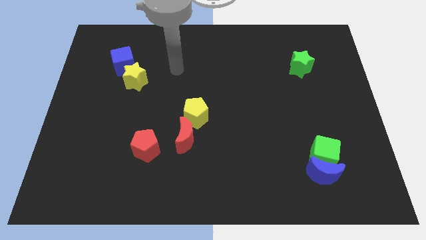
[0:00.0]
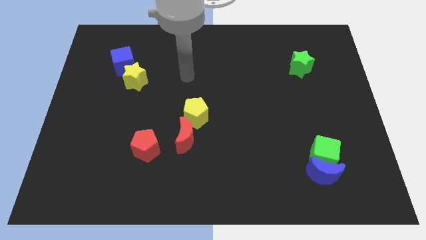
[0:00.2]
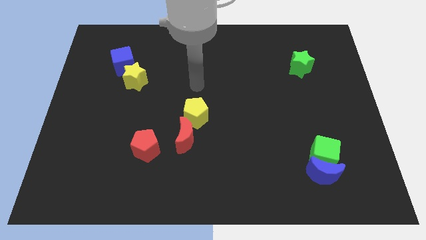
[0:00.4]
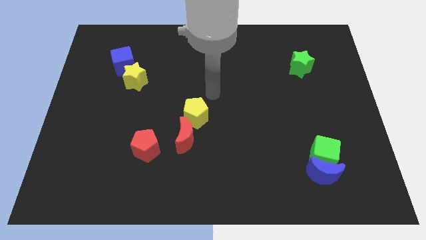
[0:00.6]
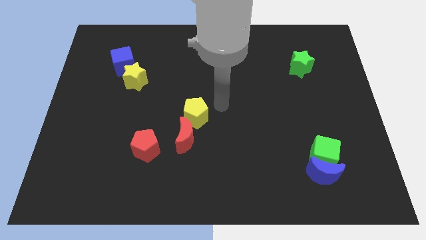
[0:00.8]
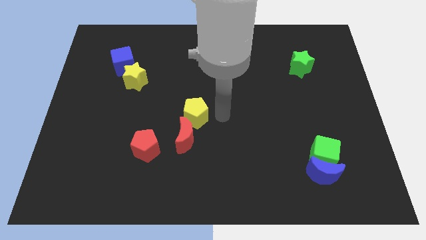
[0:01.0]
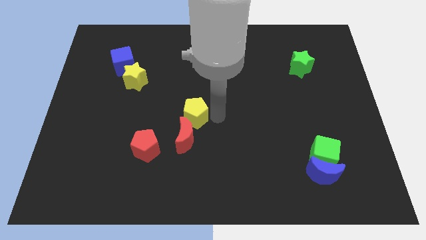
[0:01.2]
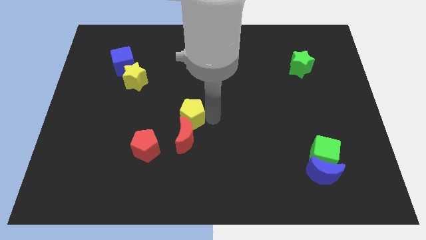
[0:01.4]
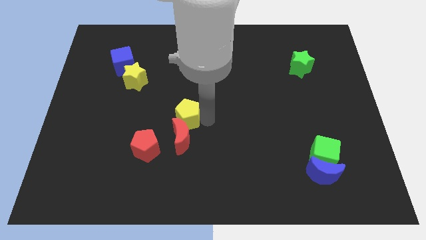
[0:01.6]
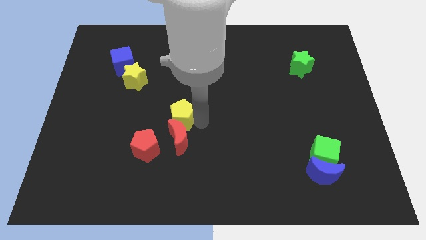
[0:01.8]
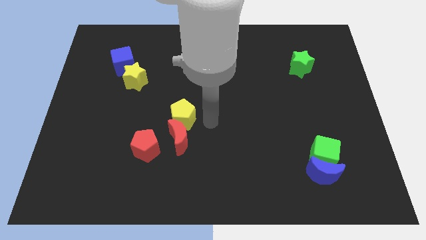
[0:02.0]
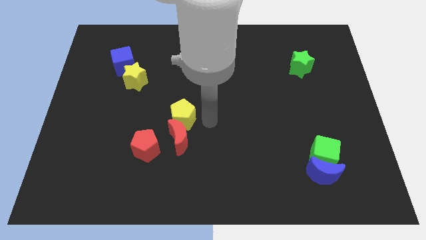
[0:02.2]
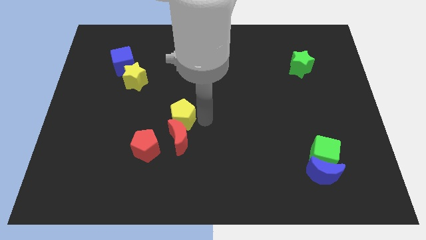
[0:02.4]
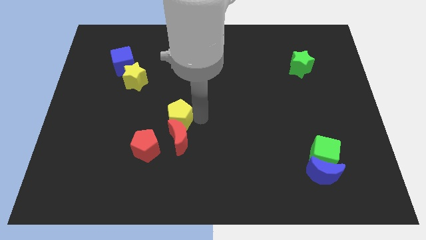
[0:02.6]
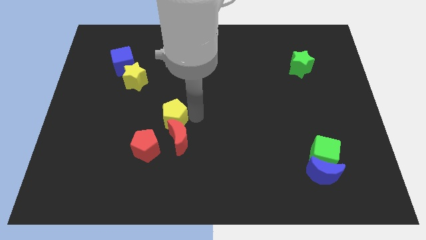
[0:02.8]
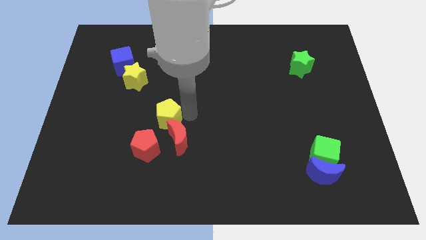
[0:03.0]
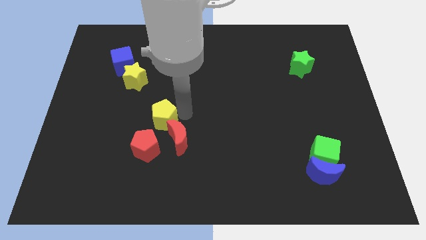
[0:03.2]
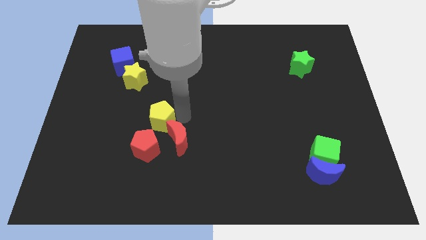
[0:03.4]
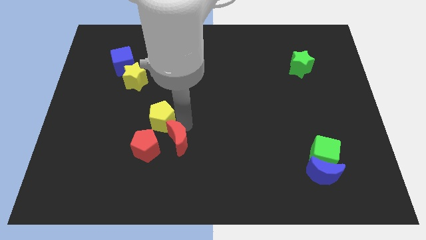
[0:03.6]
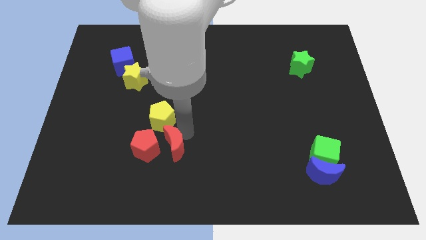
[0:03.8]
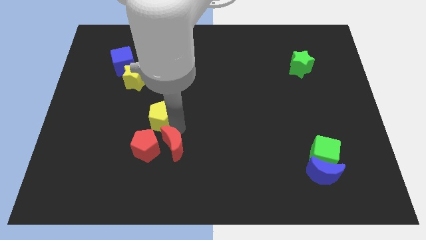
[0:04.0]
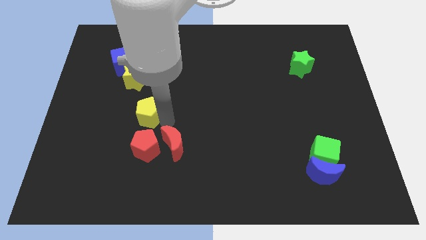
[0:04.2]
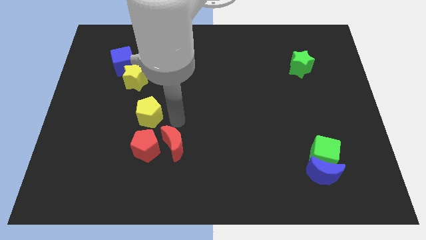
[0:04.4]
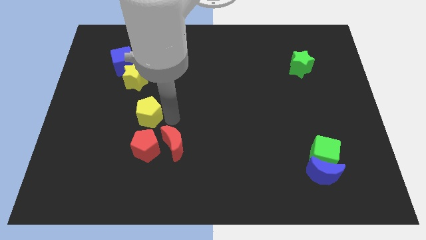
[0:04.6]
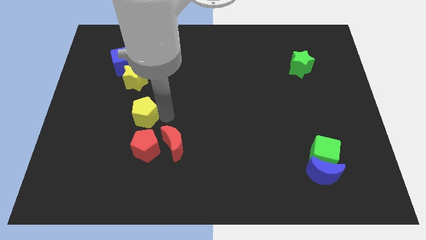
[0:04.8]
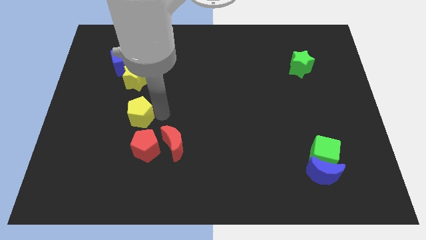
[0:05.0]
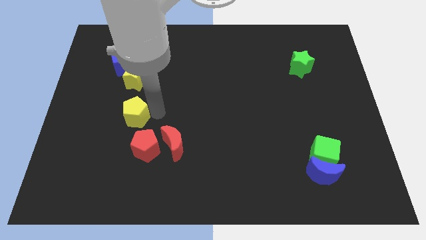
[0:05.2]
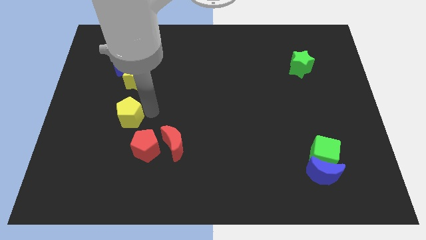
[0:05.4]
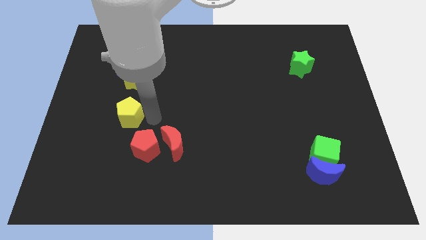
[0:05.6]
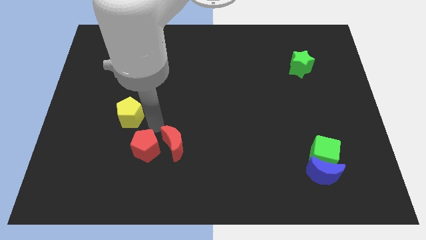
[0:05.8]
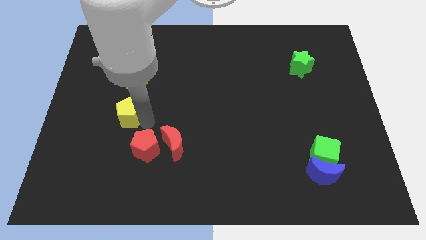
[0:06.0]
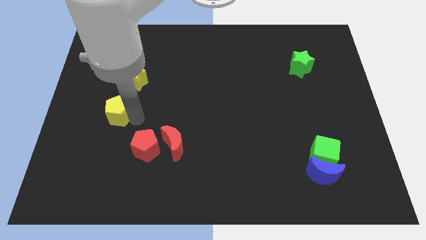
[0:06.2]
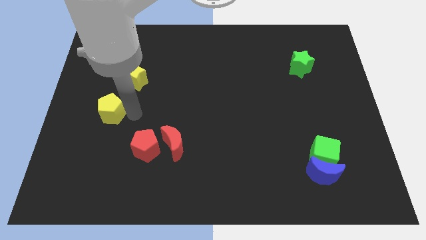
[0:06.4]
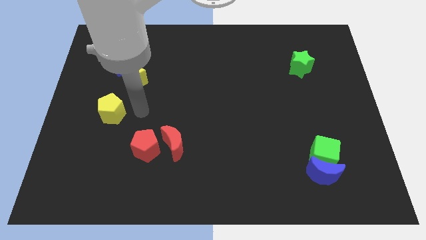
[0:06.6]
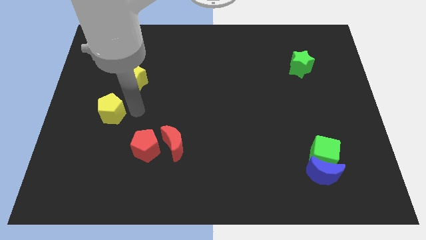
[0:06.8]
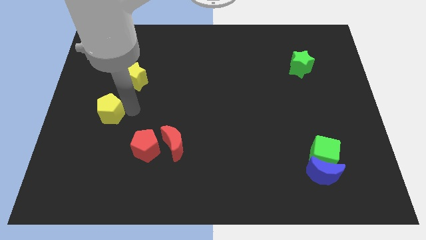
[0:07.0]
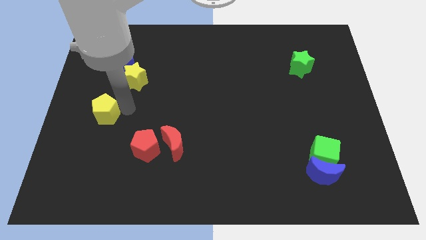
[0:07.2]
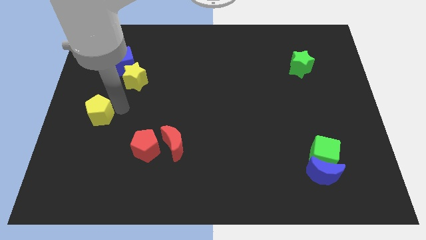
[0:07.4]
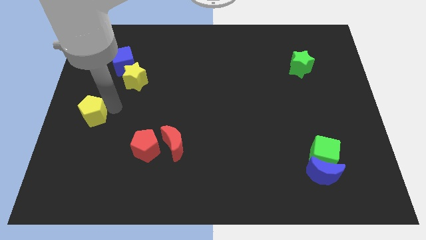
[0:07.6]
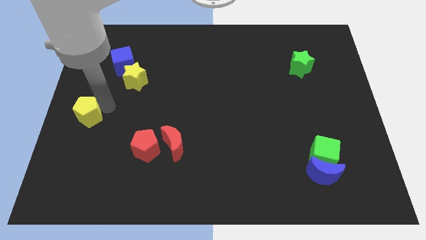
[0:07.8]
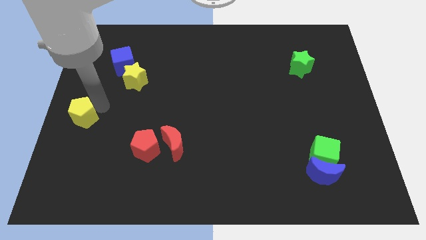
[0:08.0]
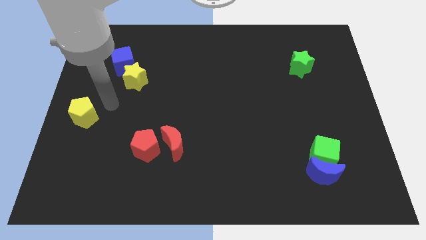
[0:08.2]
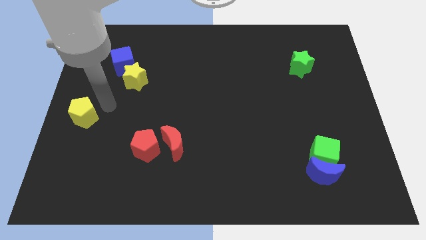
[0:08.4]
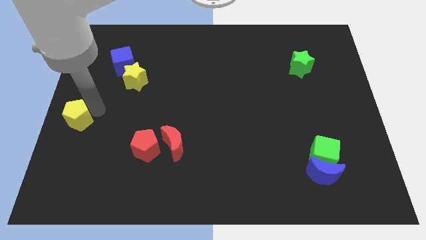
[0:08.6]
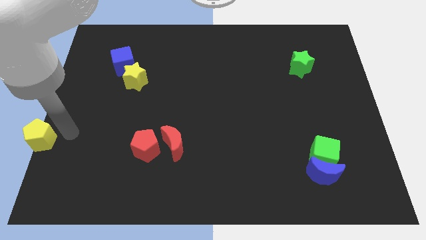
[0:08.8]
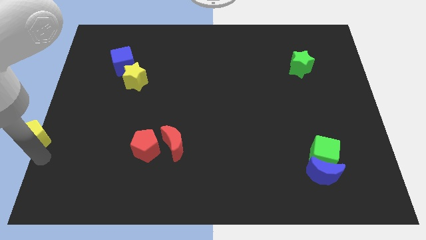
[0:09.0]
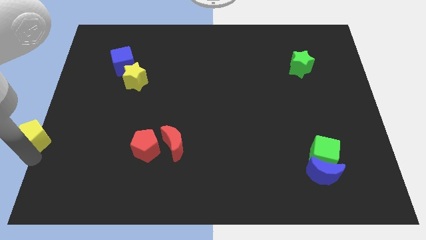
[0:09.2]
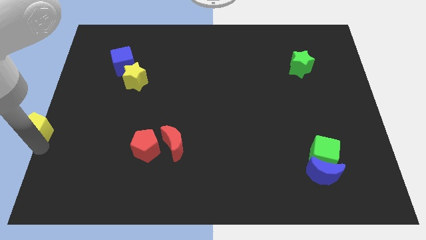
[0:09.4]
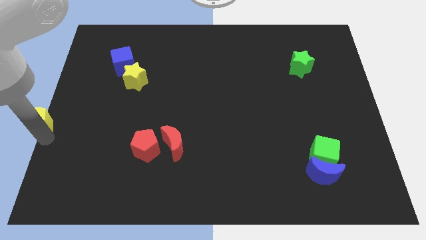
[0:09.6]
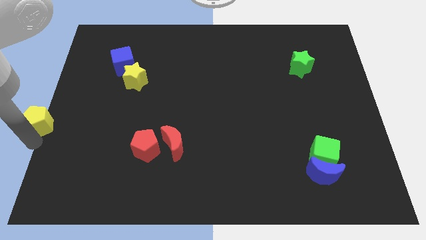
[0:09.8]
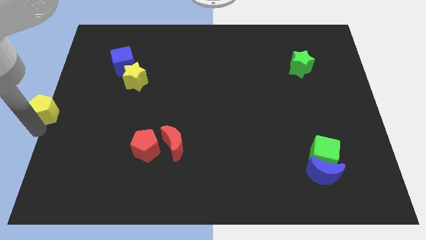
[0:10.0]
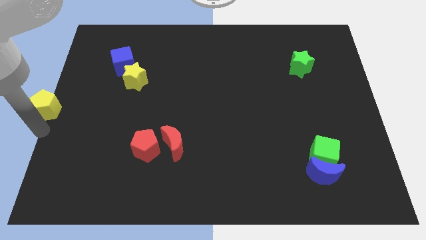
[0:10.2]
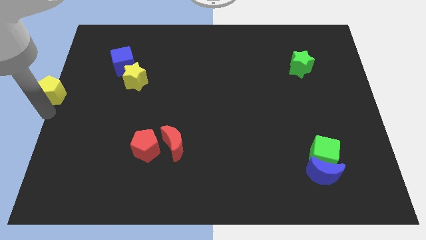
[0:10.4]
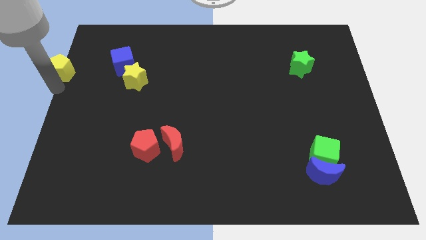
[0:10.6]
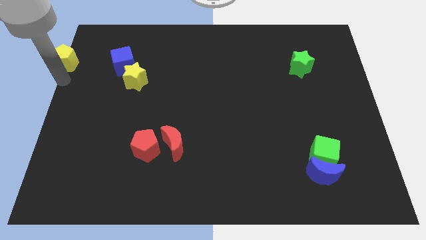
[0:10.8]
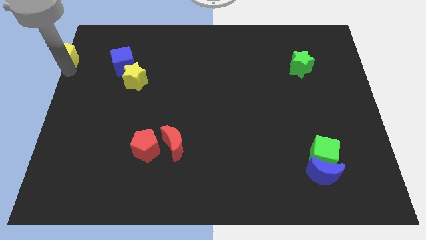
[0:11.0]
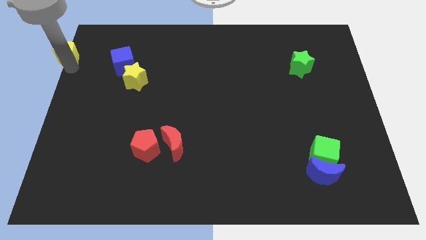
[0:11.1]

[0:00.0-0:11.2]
push the yellow pentagon to the top left corner

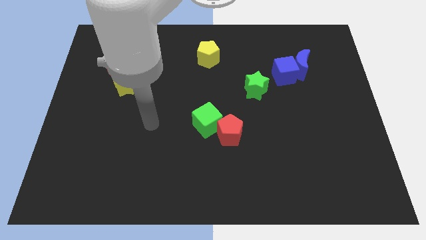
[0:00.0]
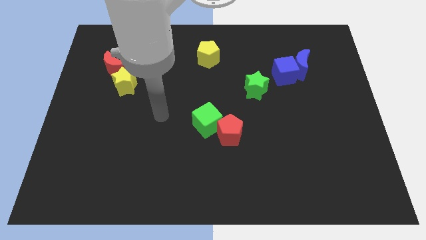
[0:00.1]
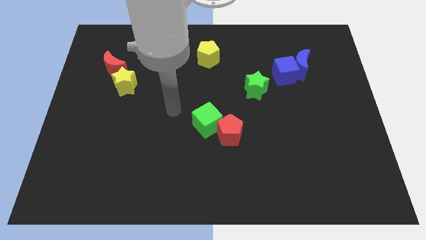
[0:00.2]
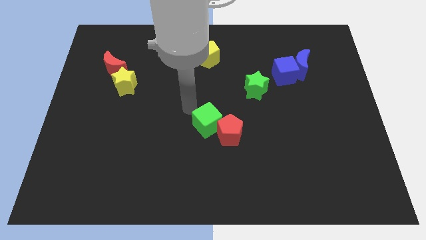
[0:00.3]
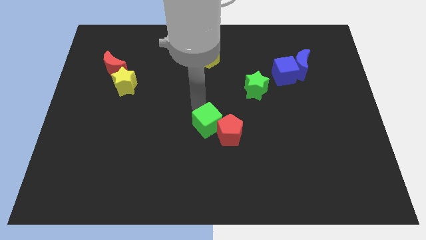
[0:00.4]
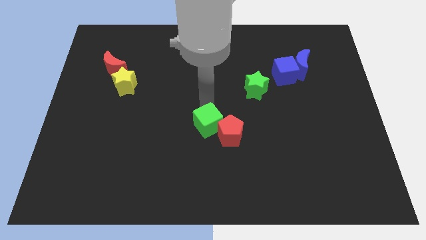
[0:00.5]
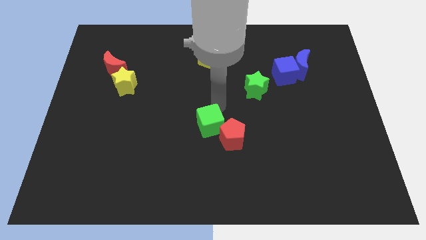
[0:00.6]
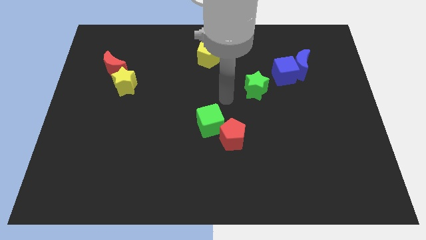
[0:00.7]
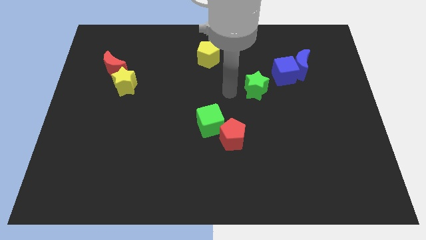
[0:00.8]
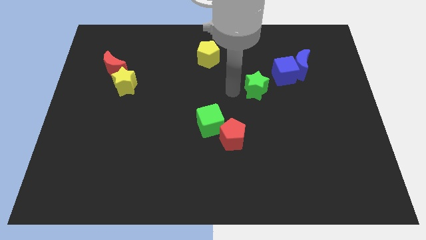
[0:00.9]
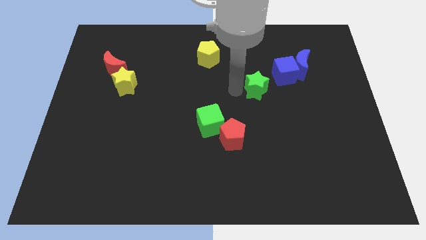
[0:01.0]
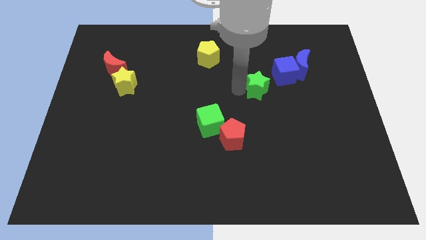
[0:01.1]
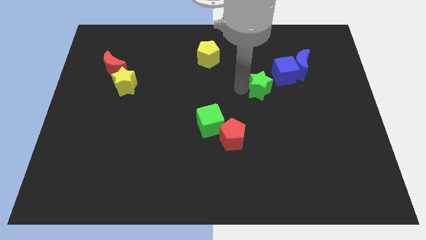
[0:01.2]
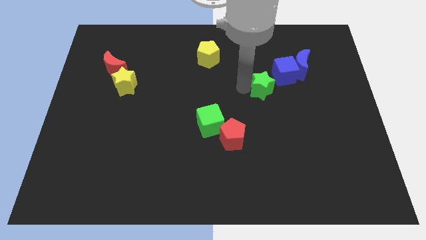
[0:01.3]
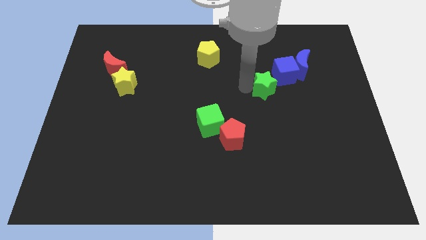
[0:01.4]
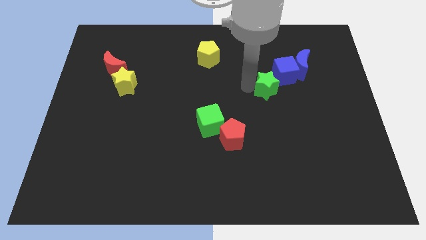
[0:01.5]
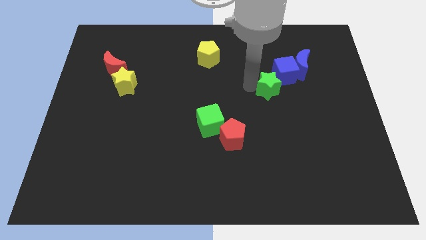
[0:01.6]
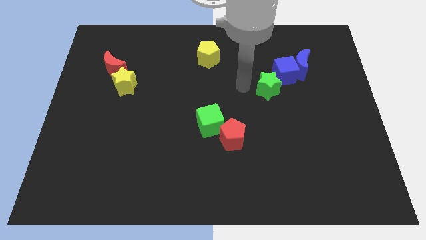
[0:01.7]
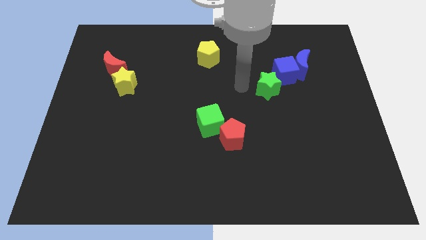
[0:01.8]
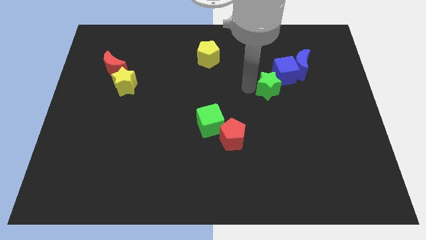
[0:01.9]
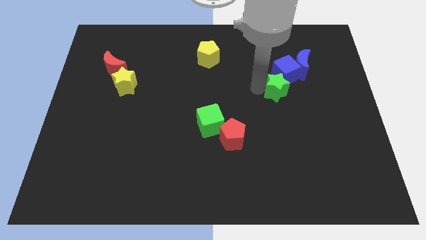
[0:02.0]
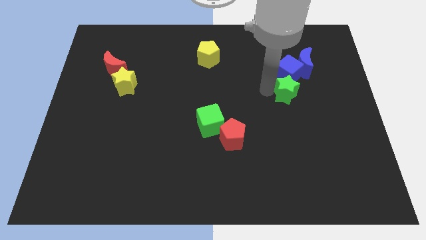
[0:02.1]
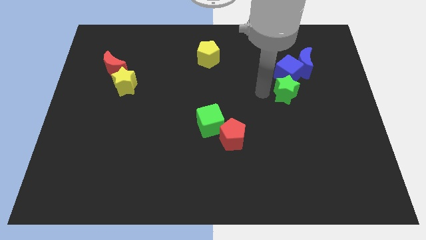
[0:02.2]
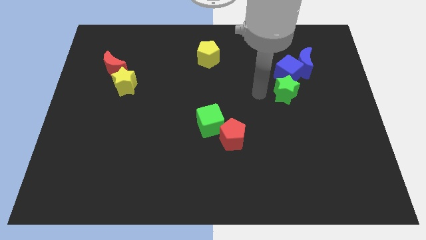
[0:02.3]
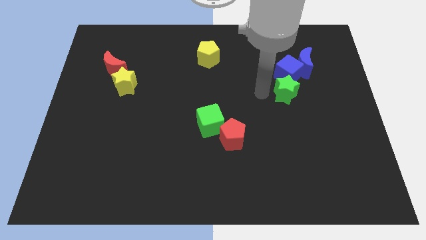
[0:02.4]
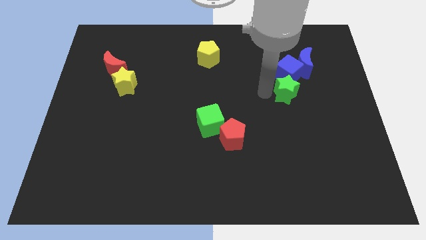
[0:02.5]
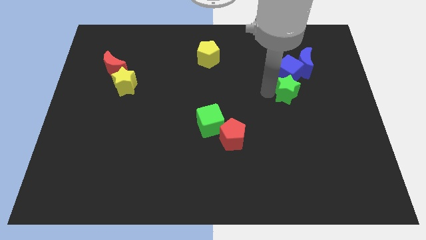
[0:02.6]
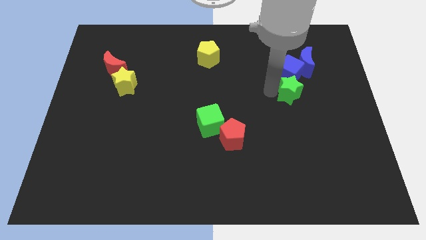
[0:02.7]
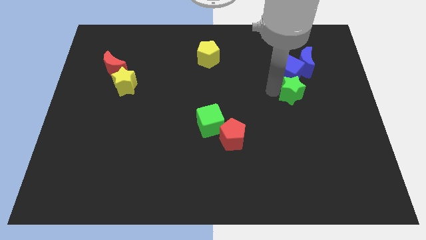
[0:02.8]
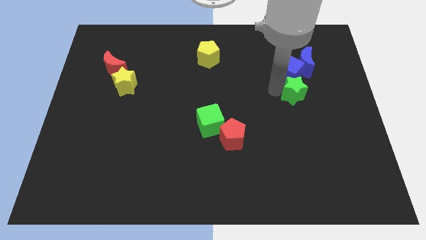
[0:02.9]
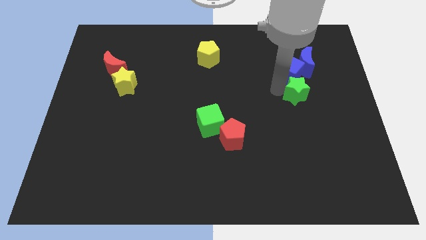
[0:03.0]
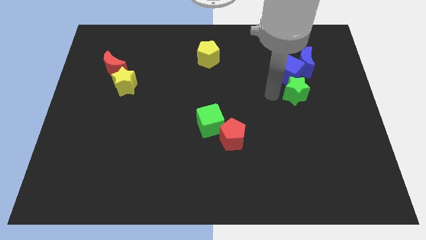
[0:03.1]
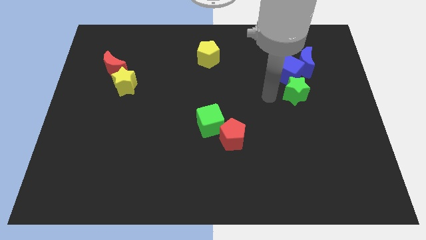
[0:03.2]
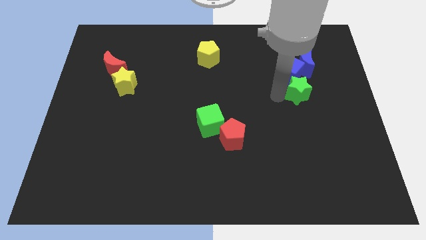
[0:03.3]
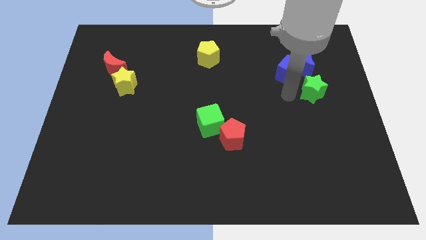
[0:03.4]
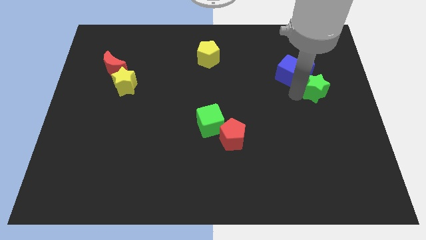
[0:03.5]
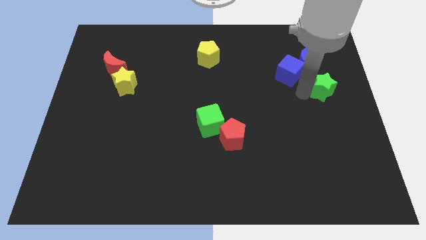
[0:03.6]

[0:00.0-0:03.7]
push the green star to the center right
